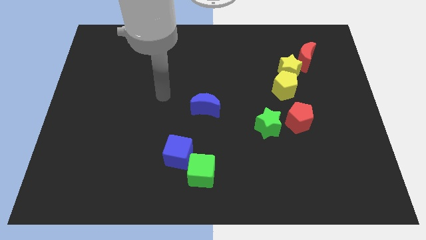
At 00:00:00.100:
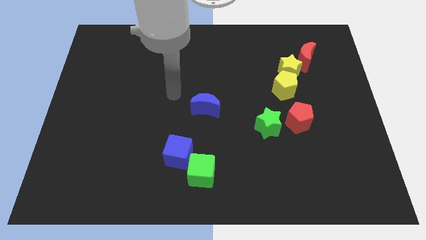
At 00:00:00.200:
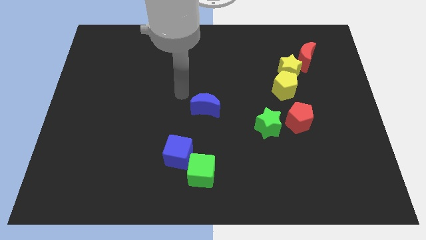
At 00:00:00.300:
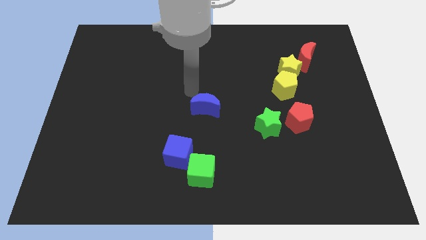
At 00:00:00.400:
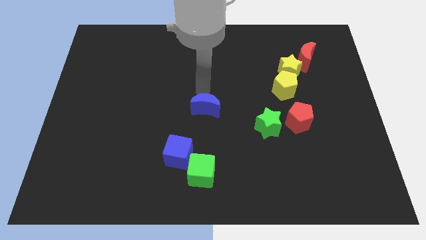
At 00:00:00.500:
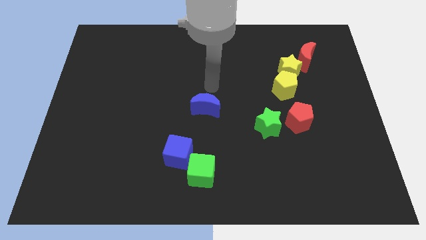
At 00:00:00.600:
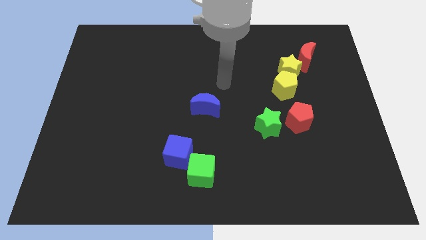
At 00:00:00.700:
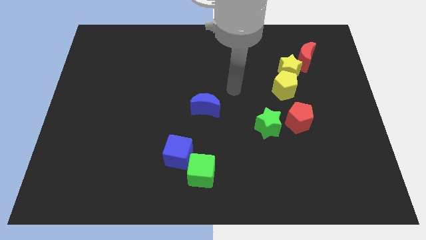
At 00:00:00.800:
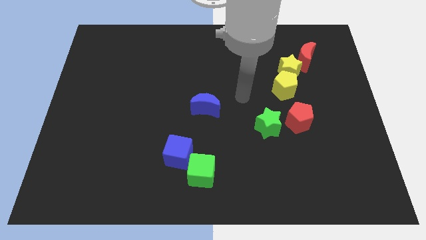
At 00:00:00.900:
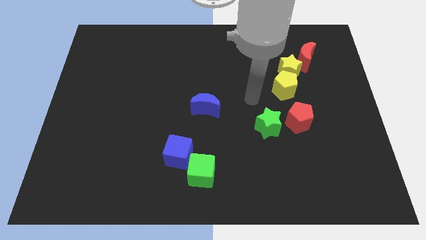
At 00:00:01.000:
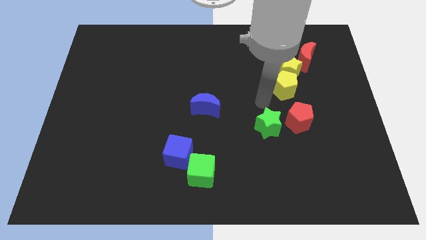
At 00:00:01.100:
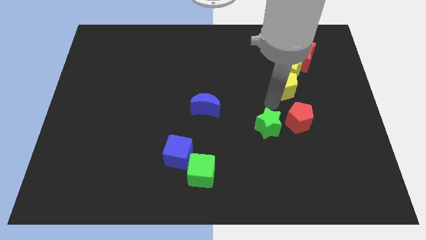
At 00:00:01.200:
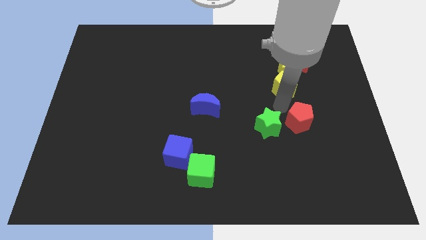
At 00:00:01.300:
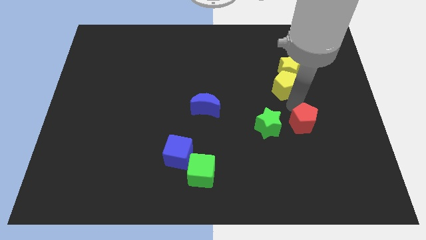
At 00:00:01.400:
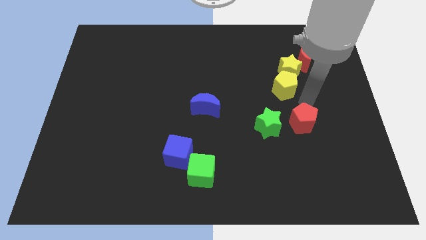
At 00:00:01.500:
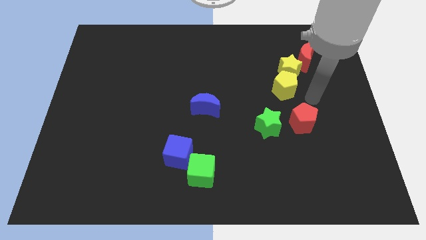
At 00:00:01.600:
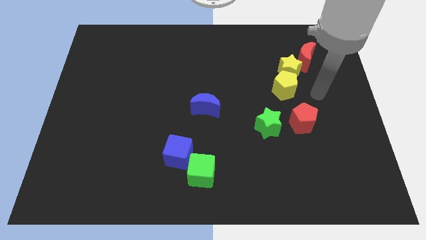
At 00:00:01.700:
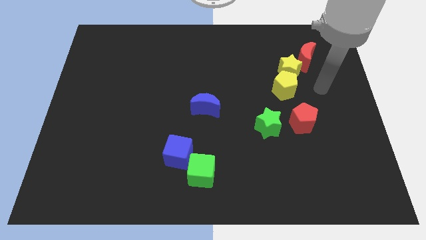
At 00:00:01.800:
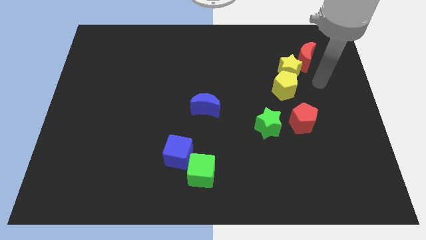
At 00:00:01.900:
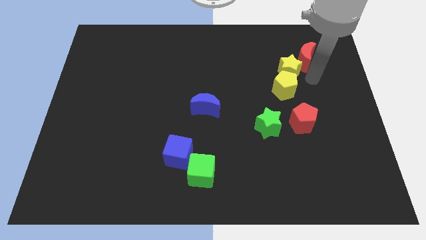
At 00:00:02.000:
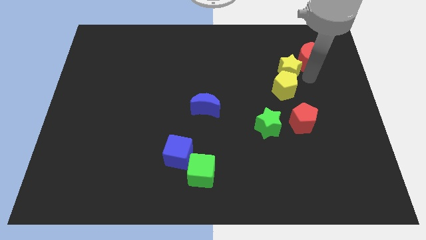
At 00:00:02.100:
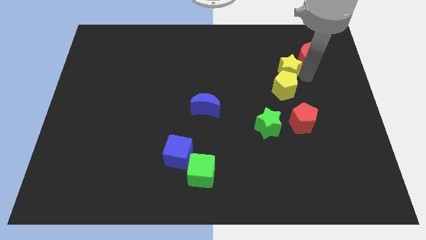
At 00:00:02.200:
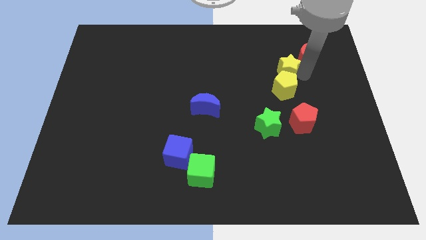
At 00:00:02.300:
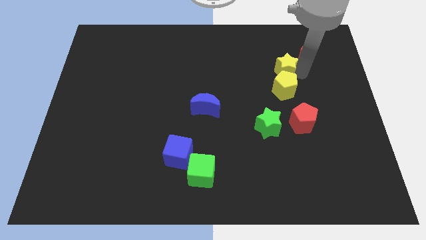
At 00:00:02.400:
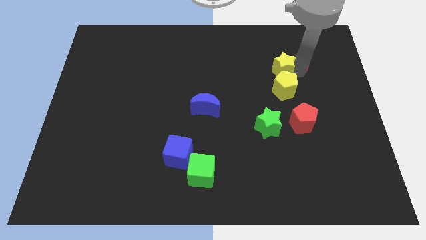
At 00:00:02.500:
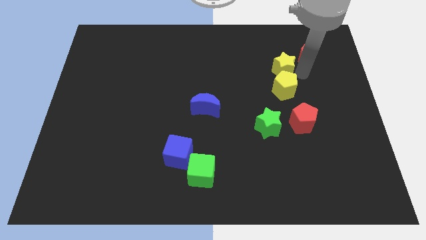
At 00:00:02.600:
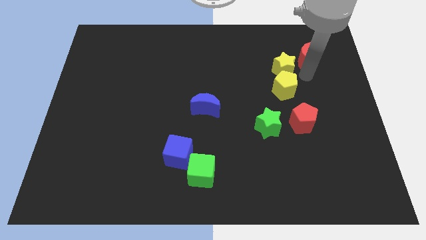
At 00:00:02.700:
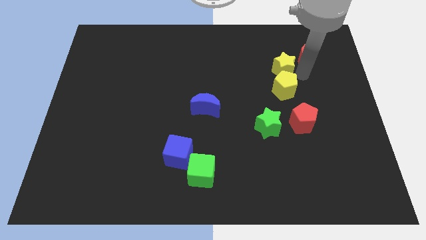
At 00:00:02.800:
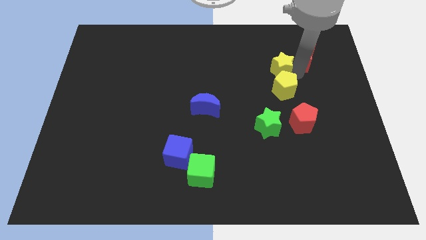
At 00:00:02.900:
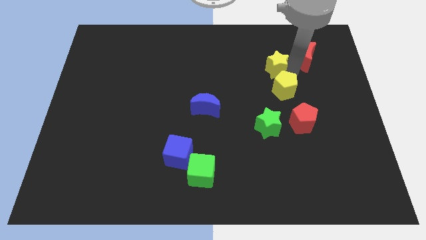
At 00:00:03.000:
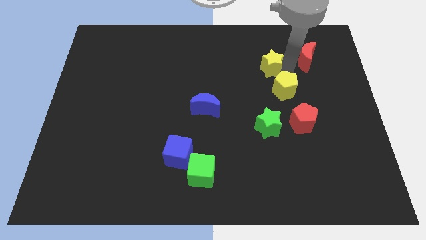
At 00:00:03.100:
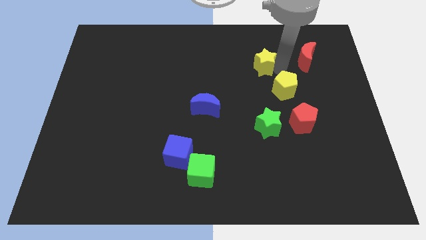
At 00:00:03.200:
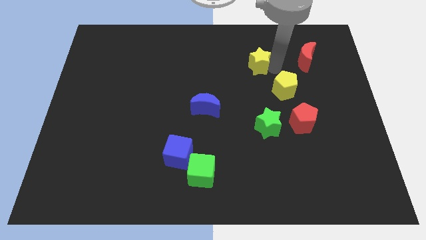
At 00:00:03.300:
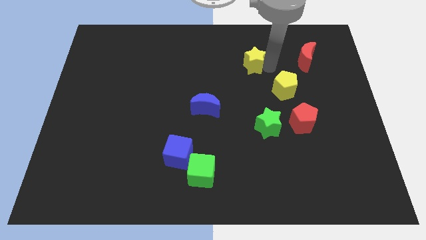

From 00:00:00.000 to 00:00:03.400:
pull the yellow star apart from the yellow pentagon and red moon

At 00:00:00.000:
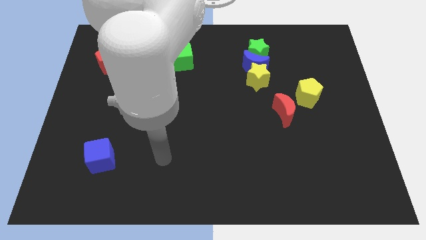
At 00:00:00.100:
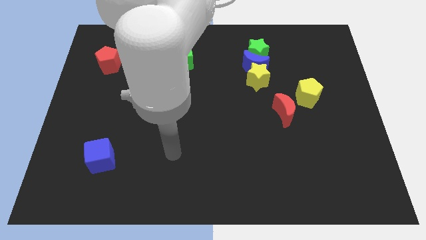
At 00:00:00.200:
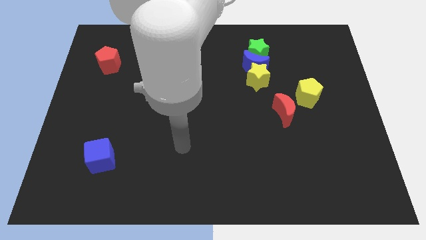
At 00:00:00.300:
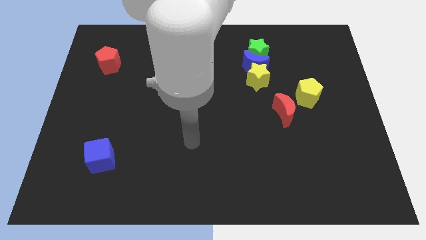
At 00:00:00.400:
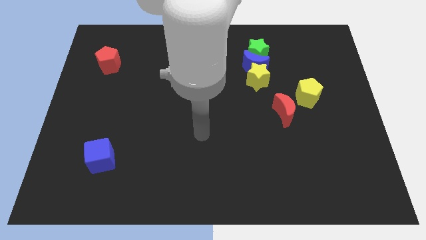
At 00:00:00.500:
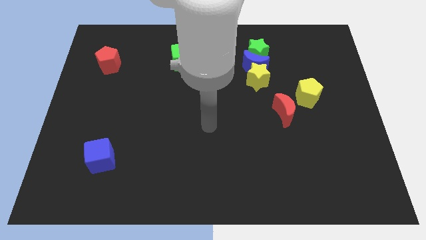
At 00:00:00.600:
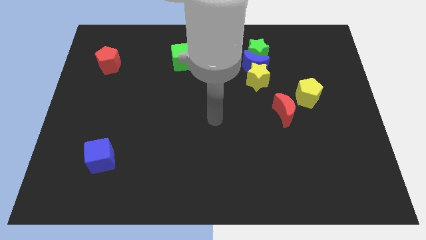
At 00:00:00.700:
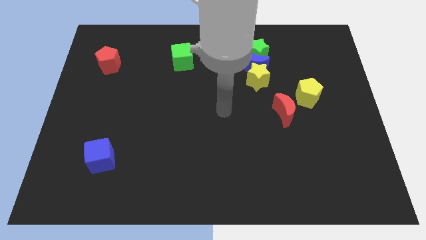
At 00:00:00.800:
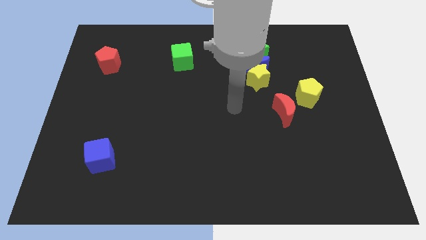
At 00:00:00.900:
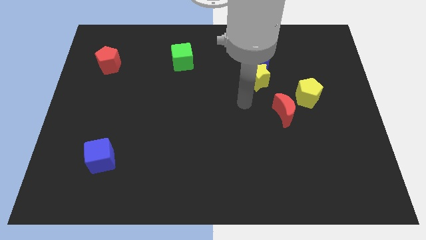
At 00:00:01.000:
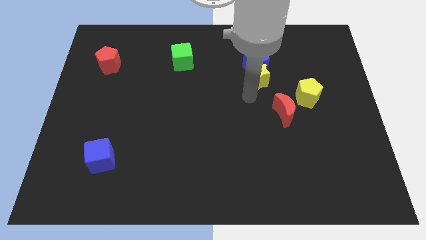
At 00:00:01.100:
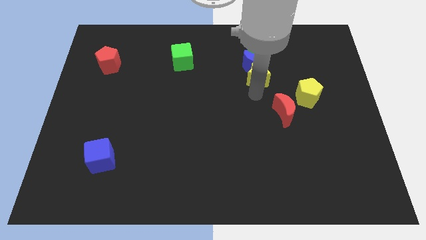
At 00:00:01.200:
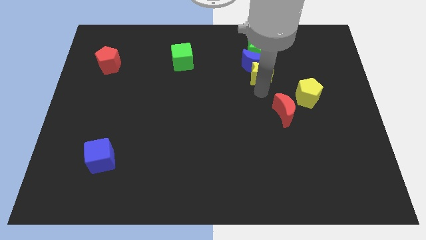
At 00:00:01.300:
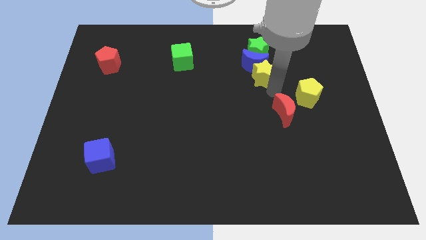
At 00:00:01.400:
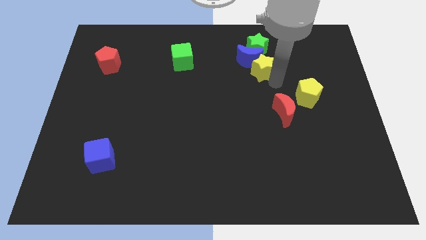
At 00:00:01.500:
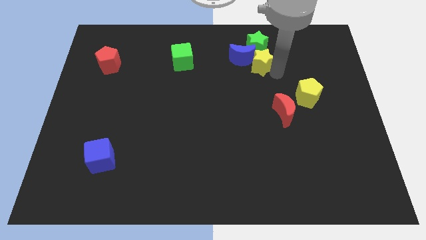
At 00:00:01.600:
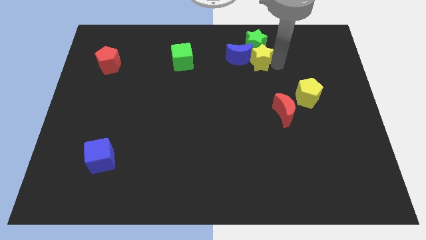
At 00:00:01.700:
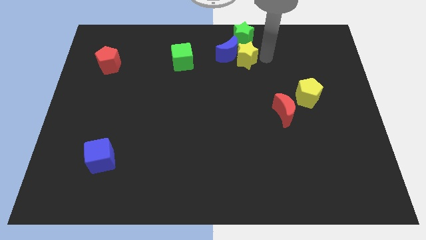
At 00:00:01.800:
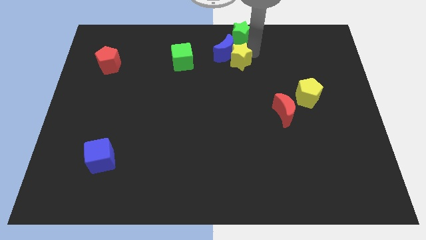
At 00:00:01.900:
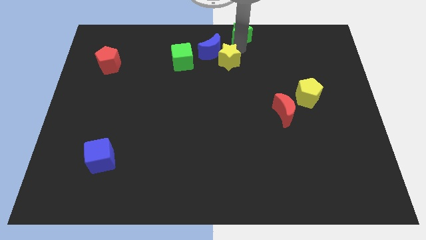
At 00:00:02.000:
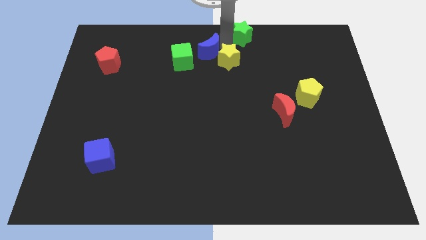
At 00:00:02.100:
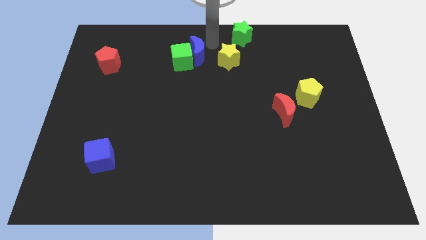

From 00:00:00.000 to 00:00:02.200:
move the blue moon away from the yellow star and green star

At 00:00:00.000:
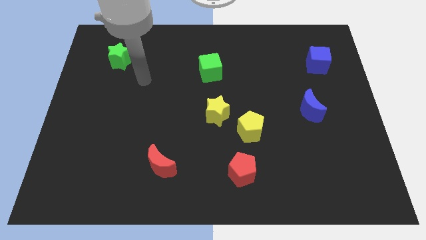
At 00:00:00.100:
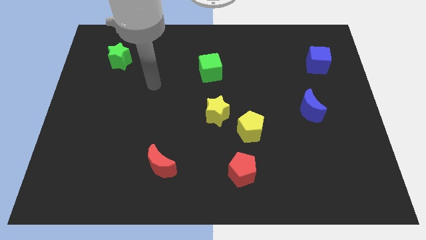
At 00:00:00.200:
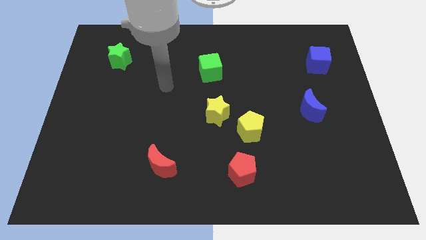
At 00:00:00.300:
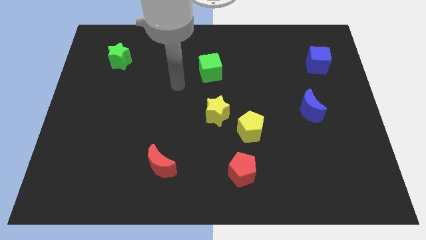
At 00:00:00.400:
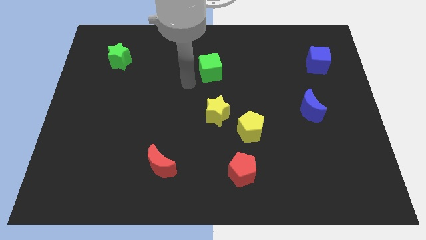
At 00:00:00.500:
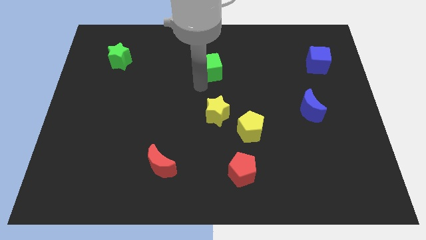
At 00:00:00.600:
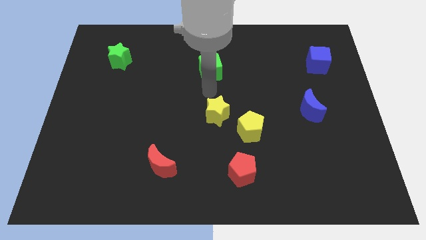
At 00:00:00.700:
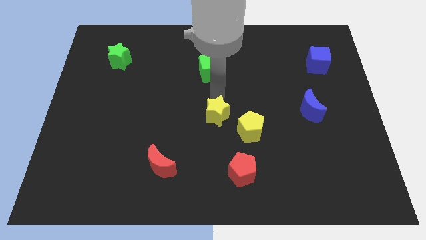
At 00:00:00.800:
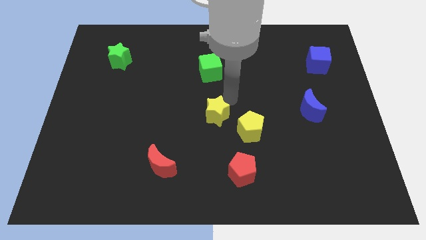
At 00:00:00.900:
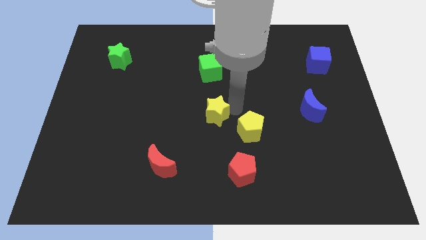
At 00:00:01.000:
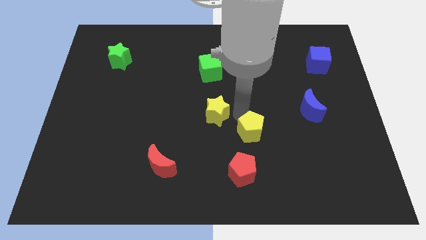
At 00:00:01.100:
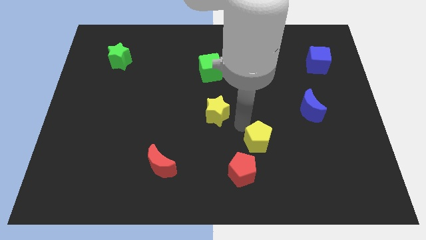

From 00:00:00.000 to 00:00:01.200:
separate the yellow star from the yellow pentagon

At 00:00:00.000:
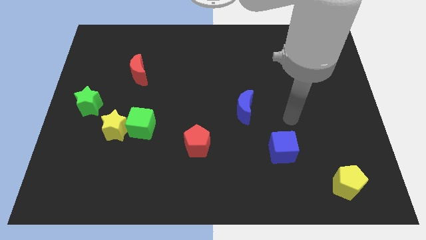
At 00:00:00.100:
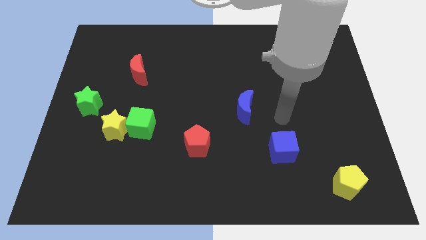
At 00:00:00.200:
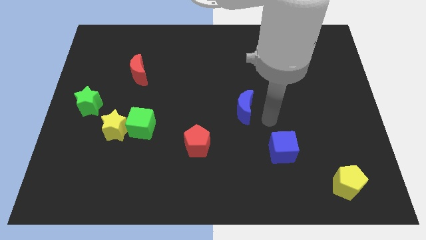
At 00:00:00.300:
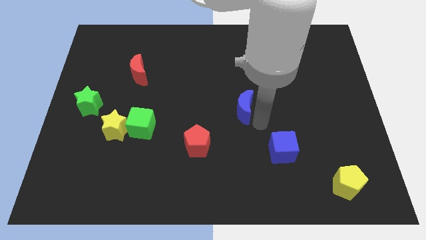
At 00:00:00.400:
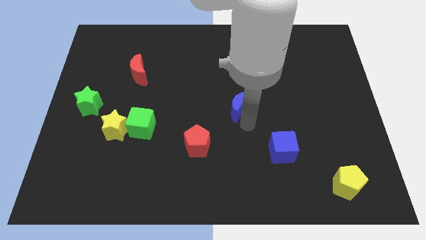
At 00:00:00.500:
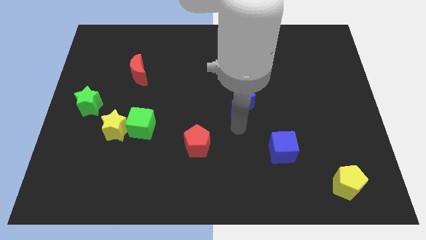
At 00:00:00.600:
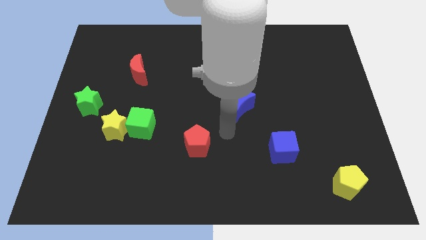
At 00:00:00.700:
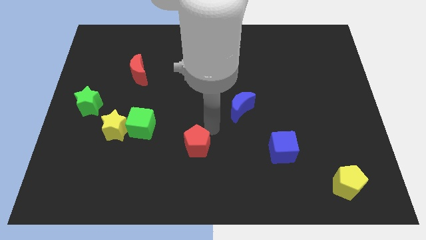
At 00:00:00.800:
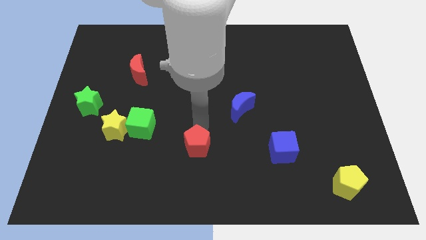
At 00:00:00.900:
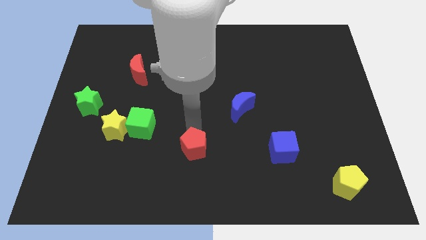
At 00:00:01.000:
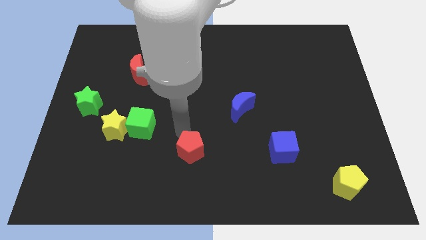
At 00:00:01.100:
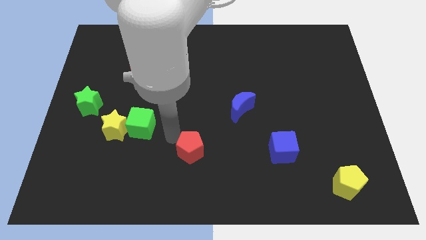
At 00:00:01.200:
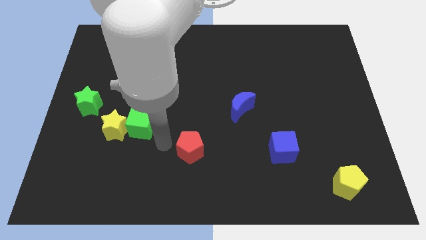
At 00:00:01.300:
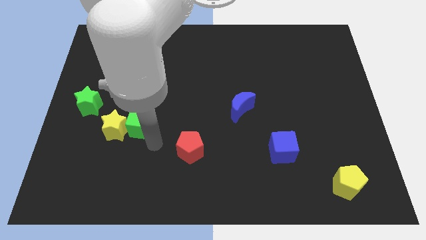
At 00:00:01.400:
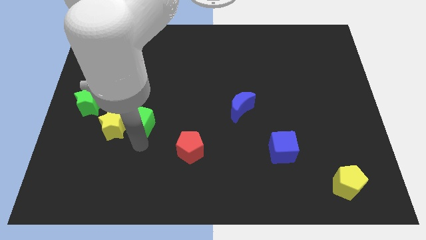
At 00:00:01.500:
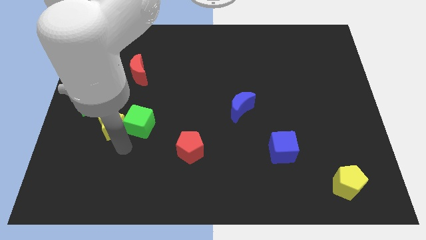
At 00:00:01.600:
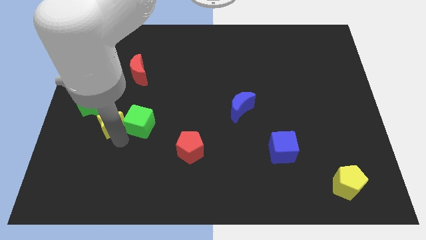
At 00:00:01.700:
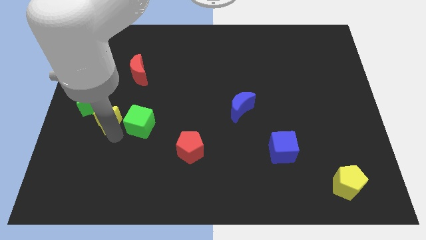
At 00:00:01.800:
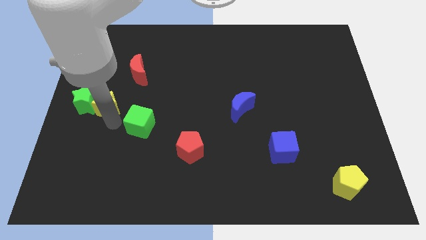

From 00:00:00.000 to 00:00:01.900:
separate the green cube from the yellow star

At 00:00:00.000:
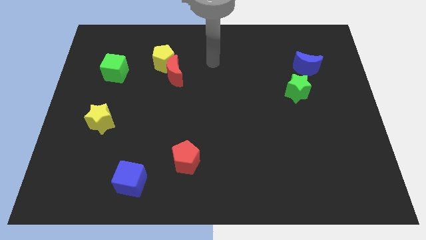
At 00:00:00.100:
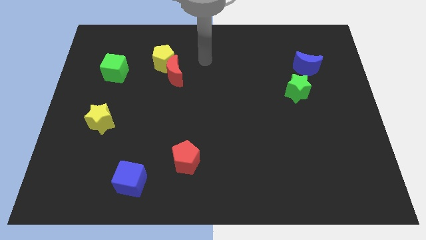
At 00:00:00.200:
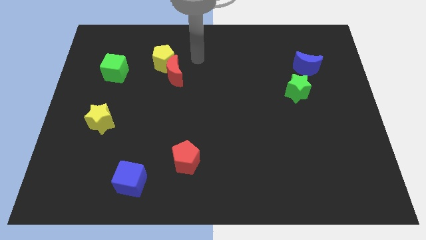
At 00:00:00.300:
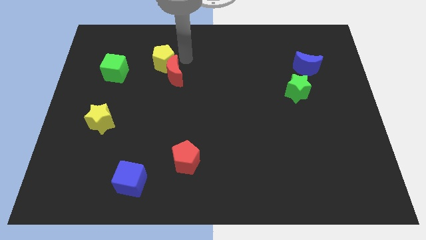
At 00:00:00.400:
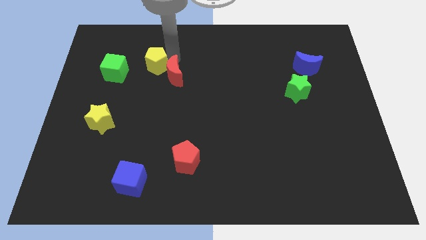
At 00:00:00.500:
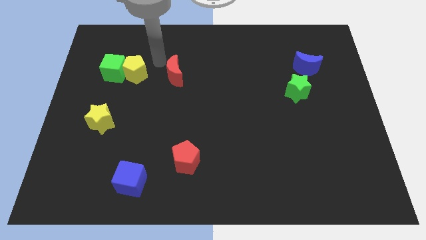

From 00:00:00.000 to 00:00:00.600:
separate the red moon from the yellow pentagon
